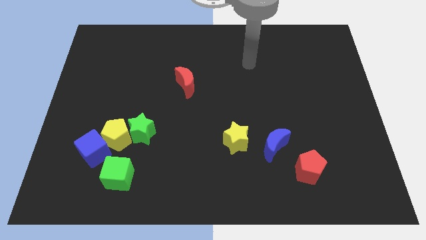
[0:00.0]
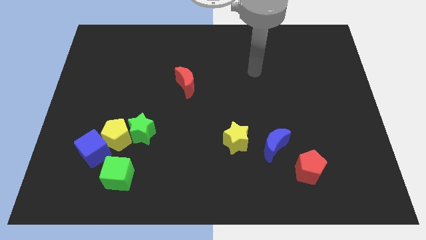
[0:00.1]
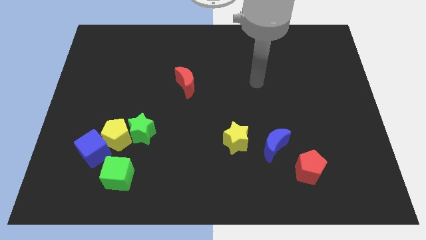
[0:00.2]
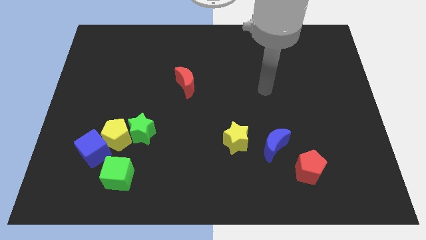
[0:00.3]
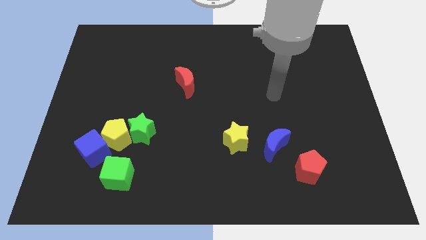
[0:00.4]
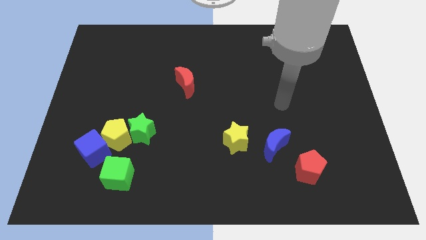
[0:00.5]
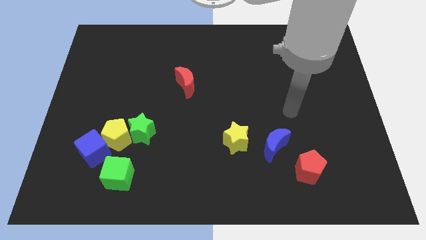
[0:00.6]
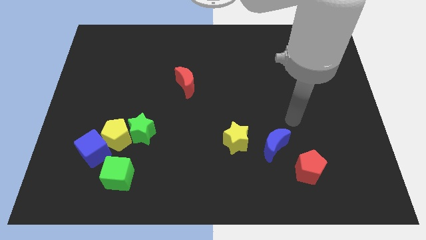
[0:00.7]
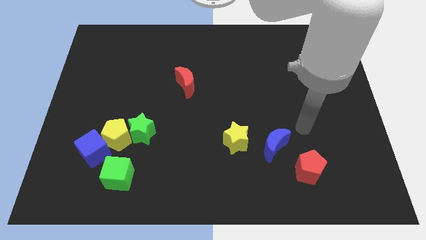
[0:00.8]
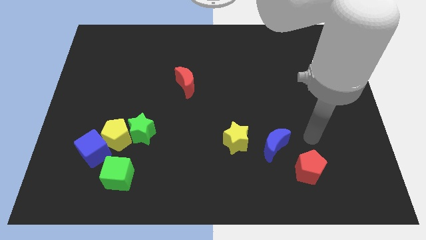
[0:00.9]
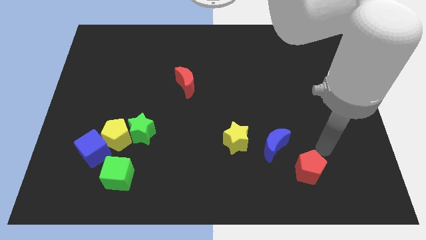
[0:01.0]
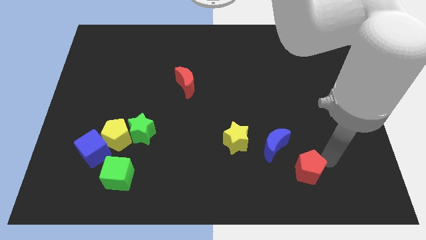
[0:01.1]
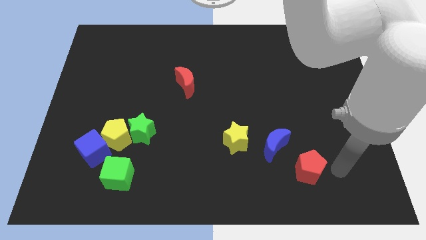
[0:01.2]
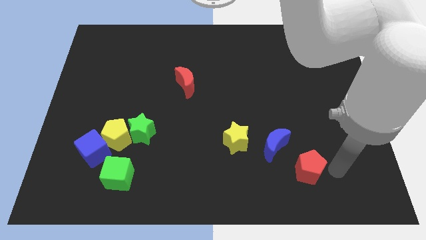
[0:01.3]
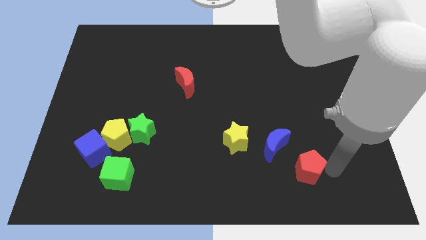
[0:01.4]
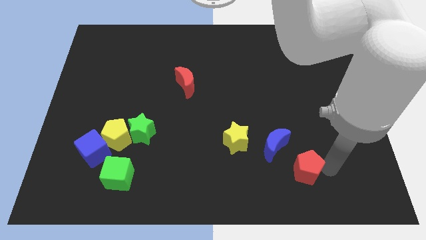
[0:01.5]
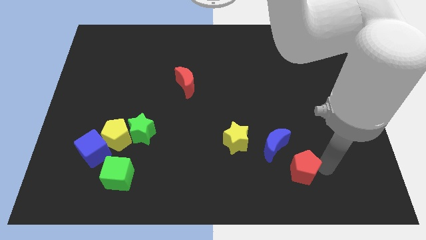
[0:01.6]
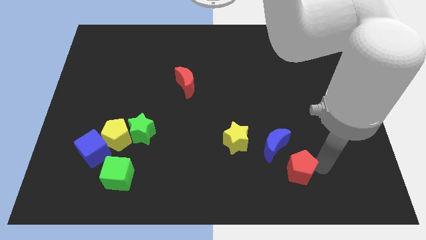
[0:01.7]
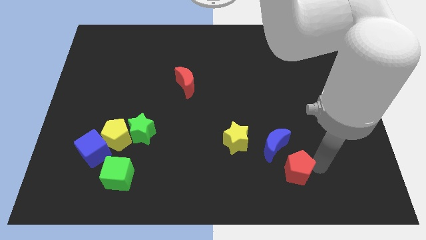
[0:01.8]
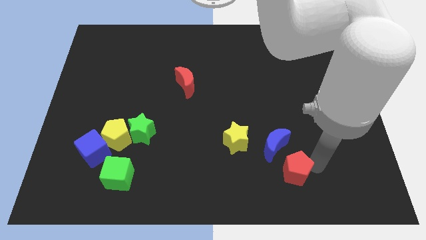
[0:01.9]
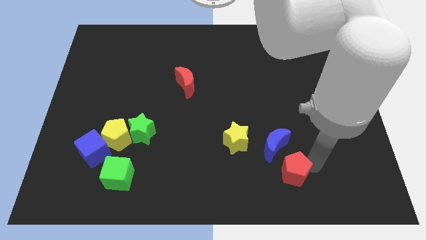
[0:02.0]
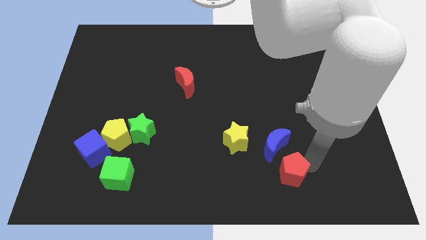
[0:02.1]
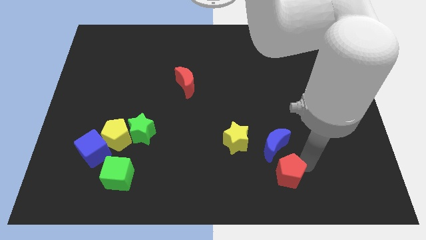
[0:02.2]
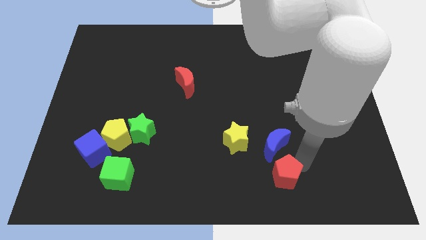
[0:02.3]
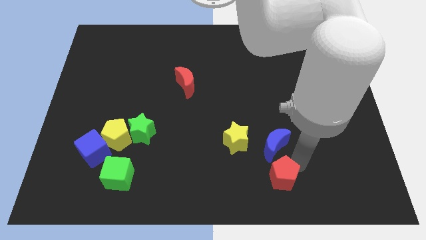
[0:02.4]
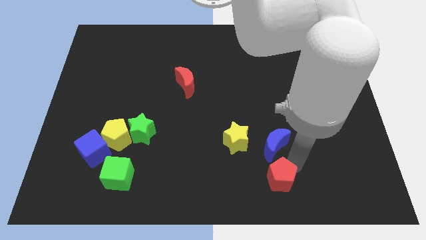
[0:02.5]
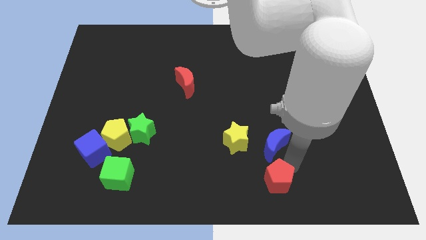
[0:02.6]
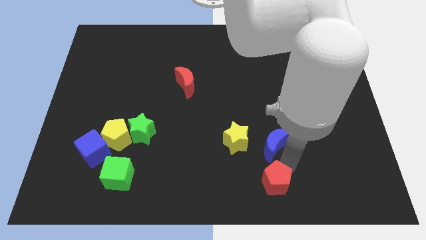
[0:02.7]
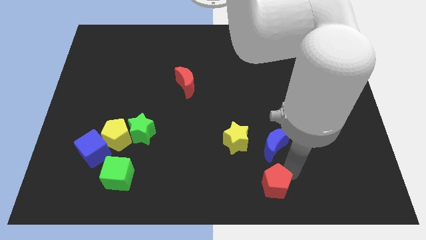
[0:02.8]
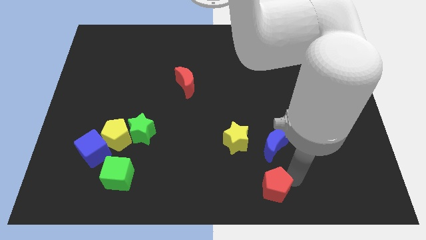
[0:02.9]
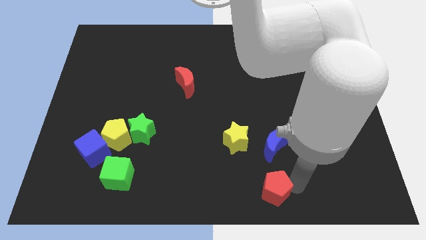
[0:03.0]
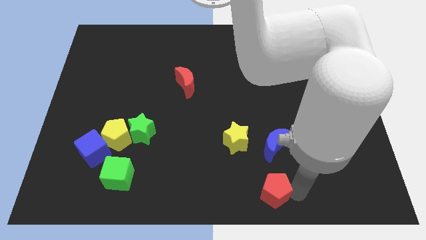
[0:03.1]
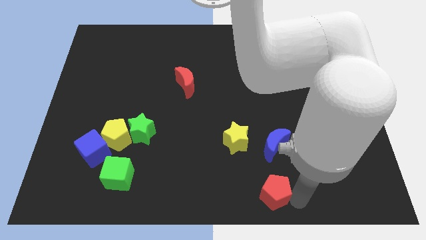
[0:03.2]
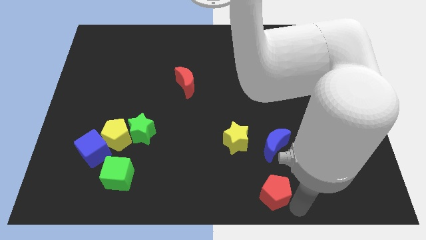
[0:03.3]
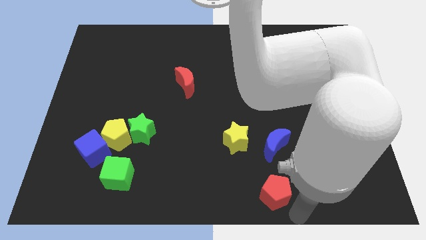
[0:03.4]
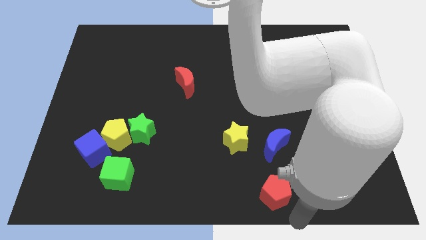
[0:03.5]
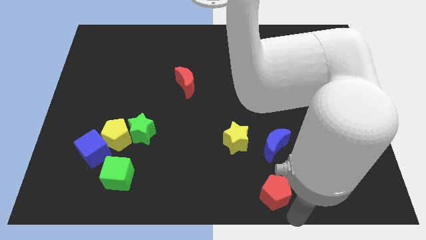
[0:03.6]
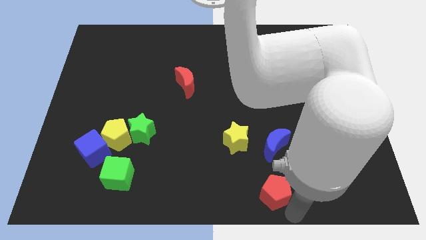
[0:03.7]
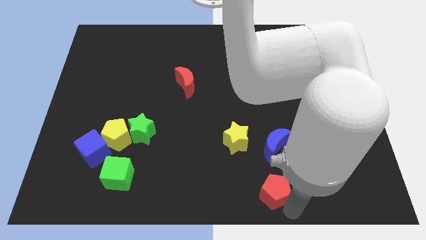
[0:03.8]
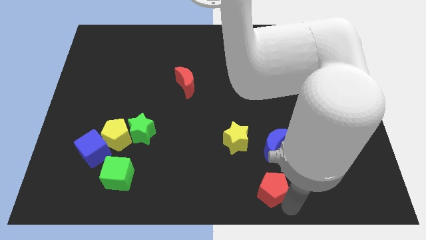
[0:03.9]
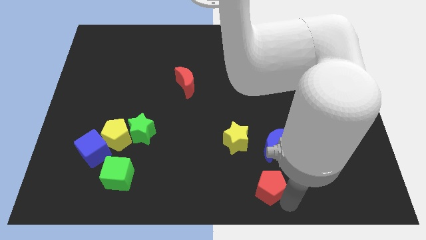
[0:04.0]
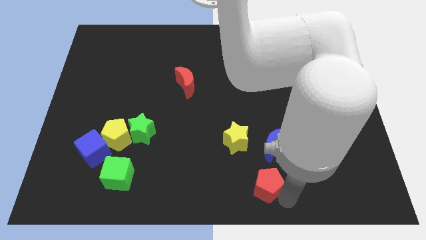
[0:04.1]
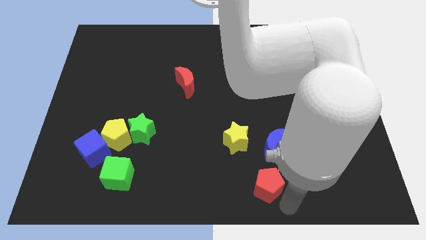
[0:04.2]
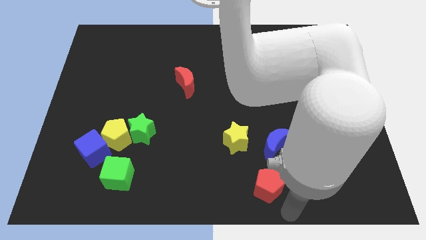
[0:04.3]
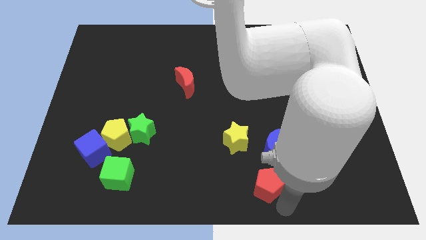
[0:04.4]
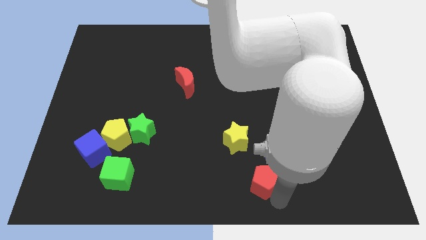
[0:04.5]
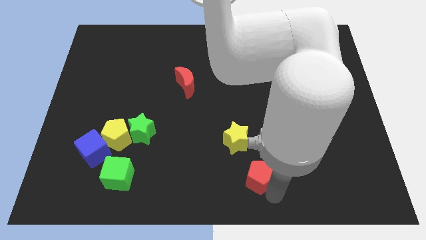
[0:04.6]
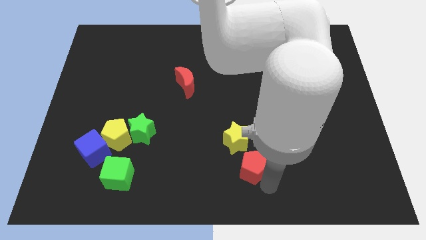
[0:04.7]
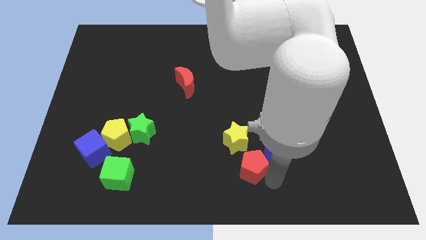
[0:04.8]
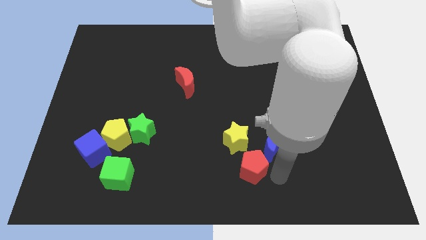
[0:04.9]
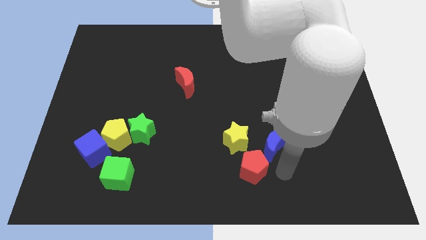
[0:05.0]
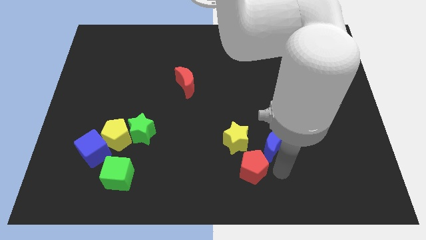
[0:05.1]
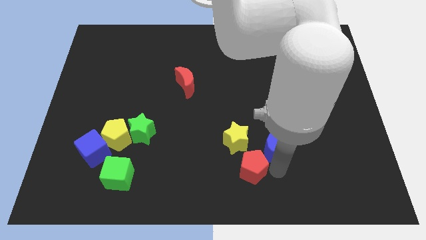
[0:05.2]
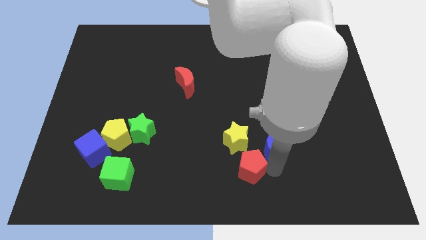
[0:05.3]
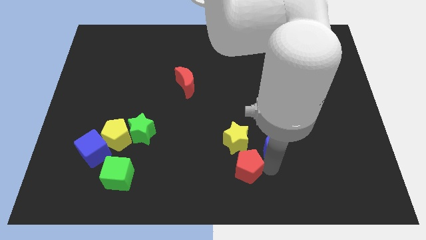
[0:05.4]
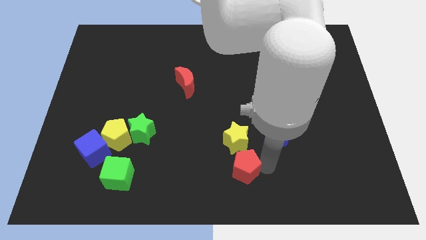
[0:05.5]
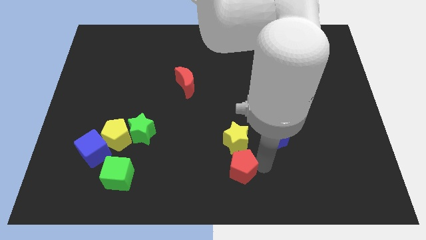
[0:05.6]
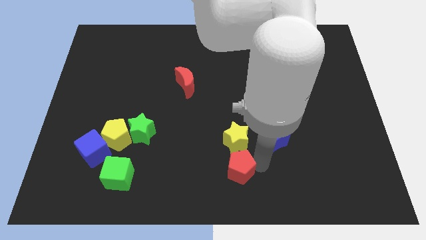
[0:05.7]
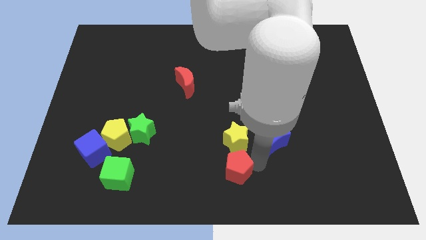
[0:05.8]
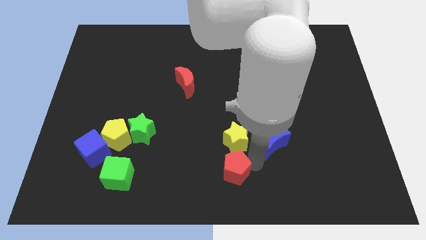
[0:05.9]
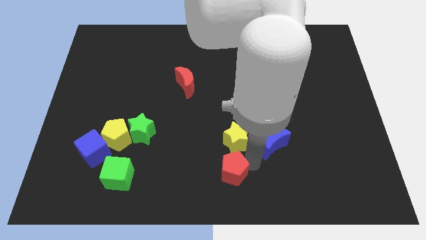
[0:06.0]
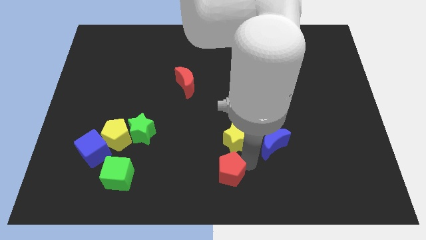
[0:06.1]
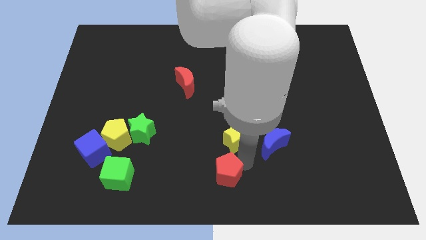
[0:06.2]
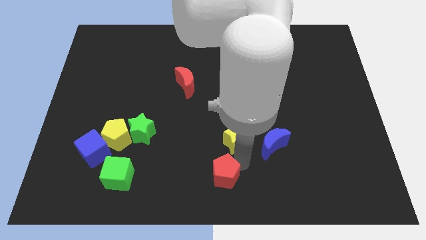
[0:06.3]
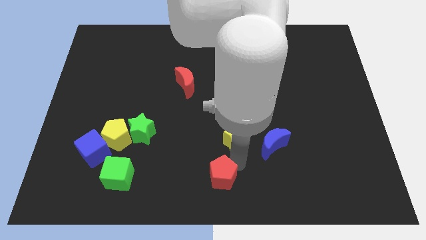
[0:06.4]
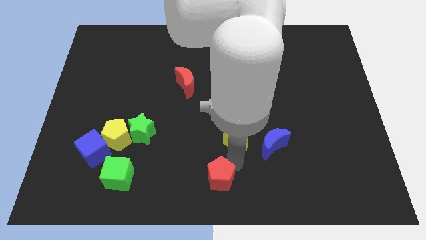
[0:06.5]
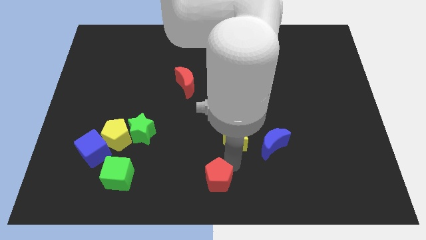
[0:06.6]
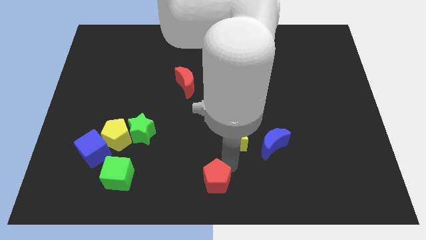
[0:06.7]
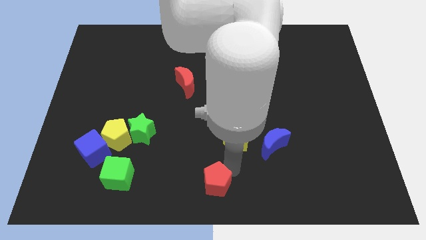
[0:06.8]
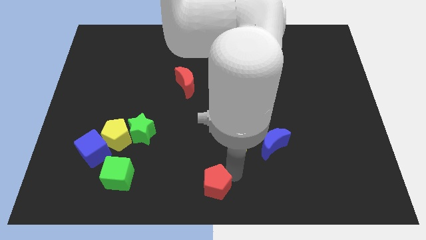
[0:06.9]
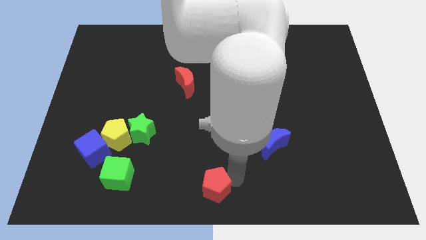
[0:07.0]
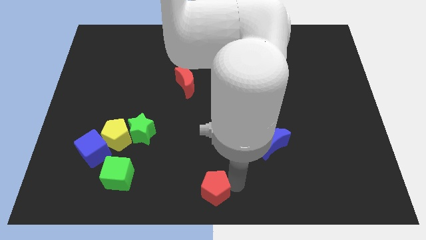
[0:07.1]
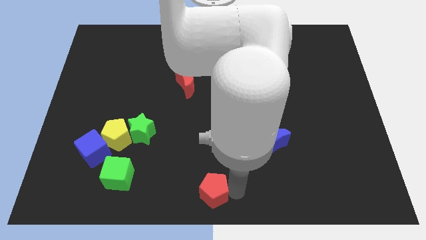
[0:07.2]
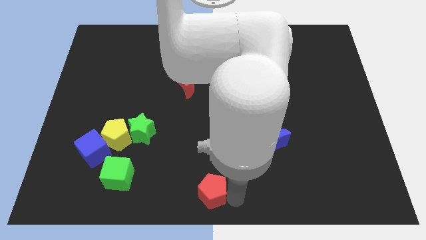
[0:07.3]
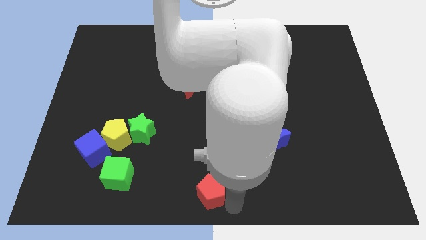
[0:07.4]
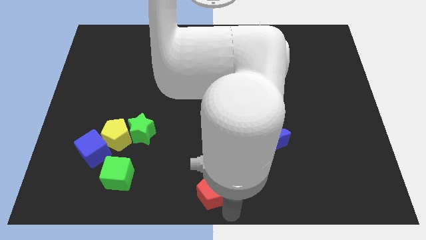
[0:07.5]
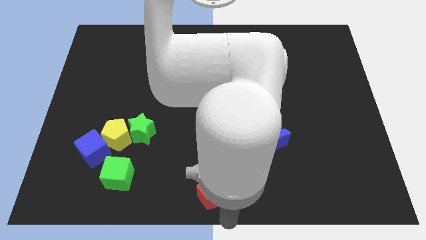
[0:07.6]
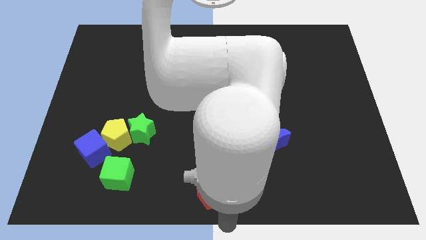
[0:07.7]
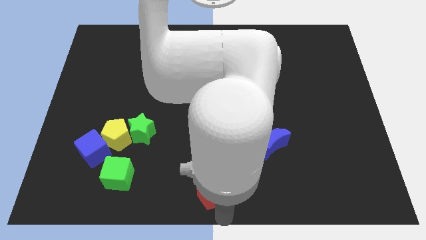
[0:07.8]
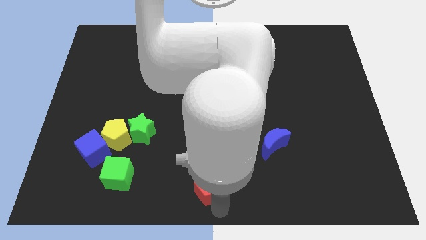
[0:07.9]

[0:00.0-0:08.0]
slide the red pentagon left
